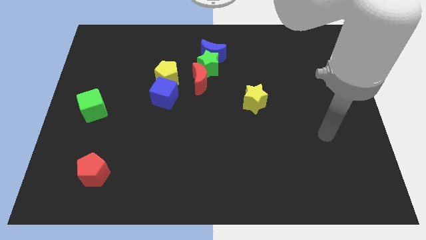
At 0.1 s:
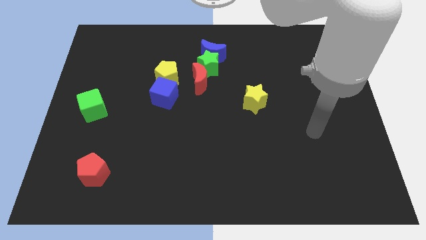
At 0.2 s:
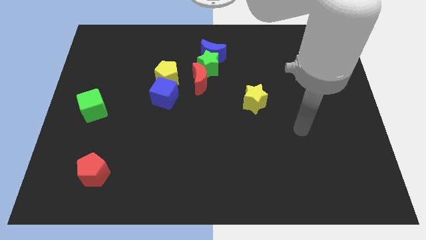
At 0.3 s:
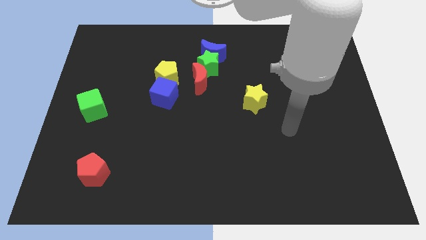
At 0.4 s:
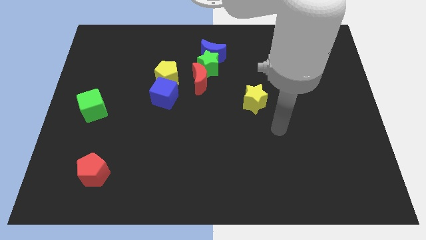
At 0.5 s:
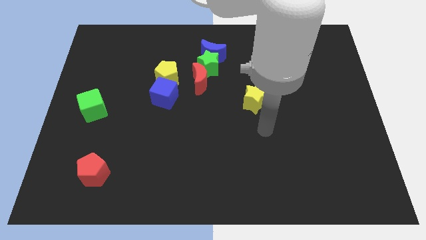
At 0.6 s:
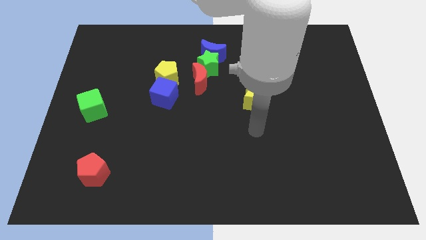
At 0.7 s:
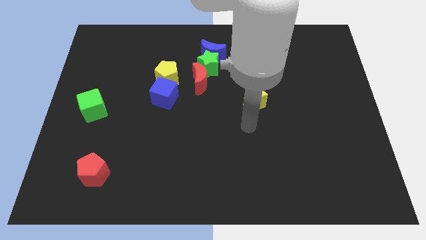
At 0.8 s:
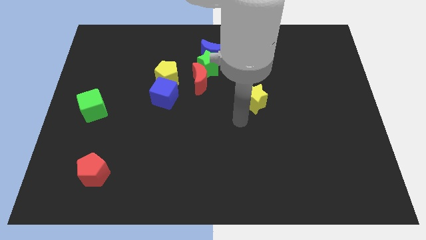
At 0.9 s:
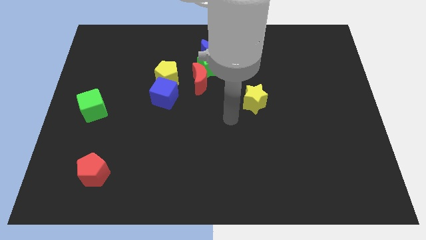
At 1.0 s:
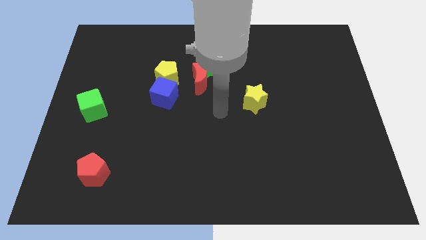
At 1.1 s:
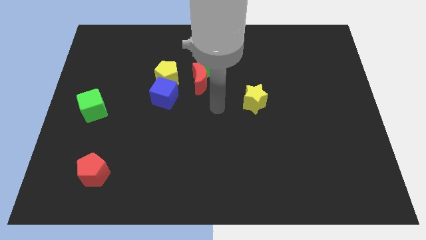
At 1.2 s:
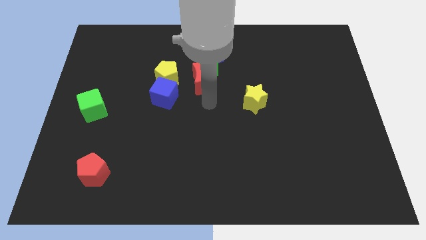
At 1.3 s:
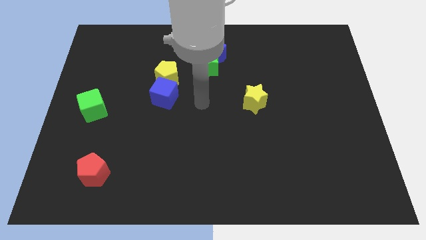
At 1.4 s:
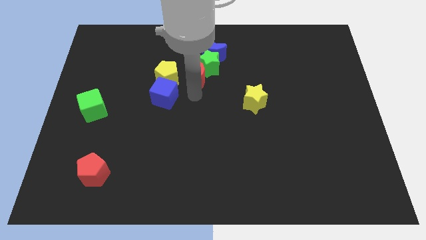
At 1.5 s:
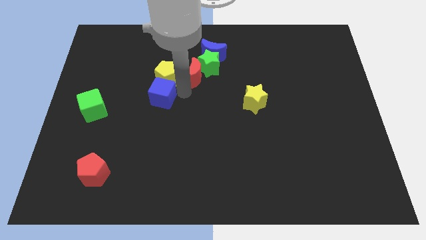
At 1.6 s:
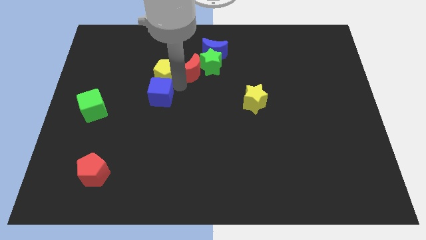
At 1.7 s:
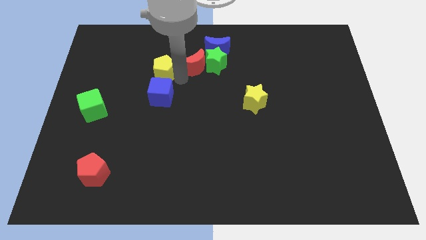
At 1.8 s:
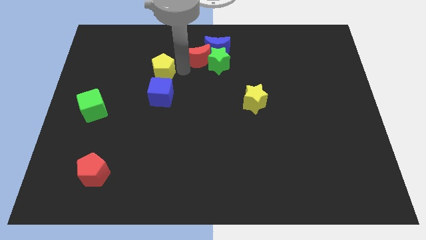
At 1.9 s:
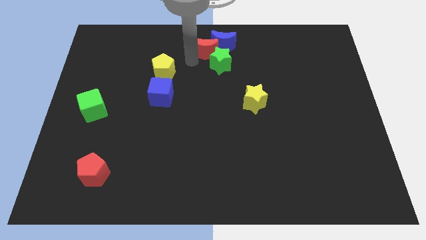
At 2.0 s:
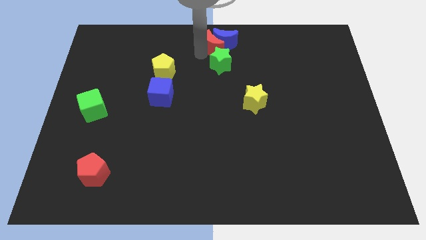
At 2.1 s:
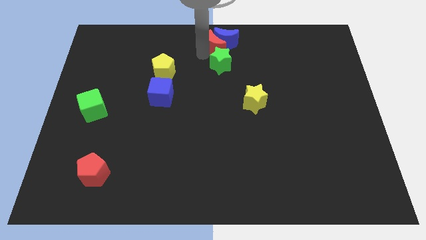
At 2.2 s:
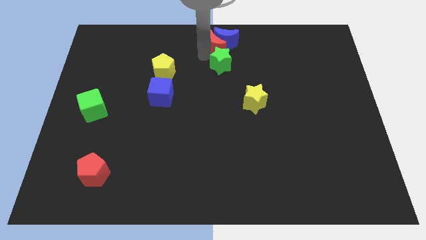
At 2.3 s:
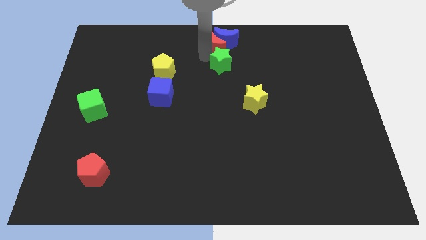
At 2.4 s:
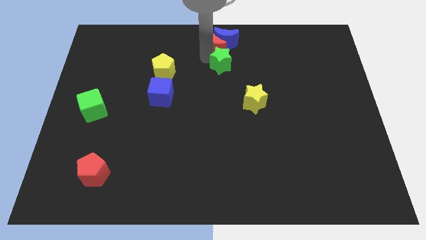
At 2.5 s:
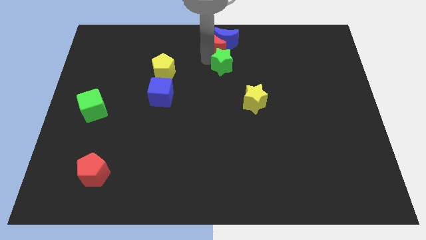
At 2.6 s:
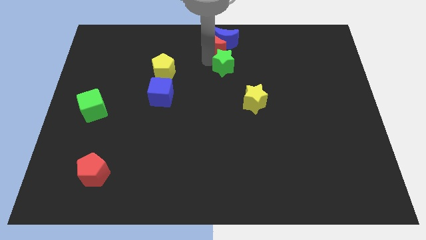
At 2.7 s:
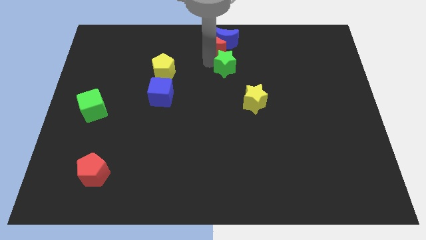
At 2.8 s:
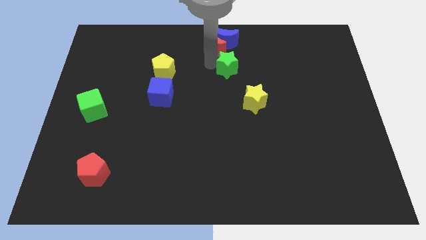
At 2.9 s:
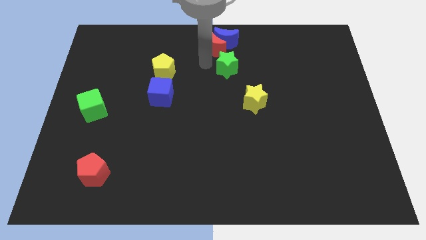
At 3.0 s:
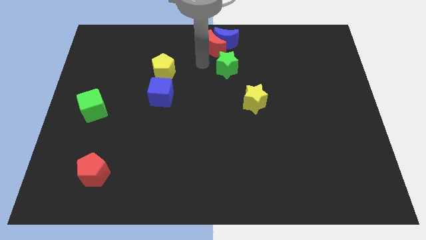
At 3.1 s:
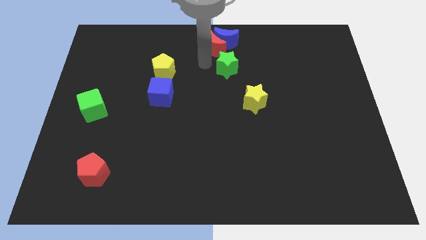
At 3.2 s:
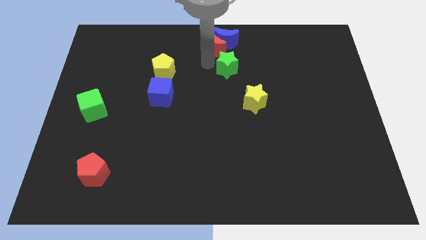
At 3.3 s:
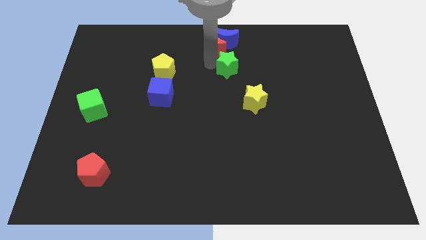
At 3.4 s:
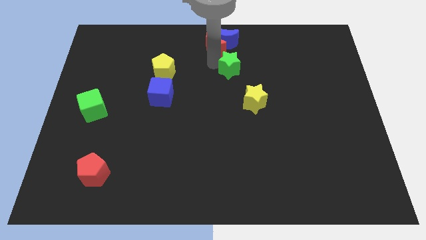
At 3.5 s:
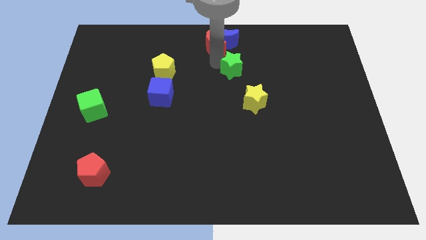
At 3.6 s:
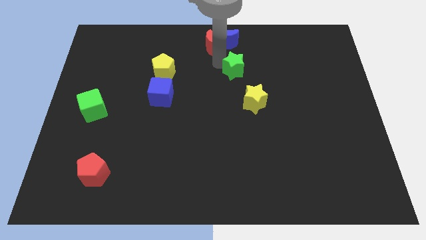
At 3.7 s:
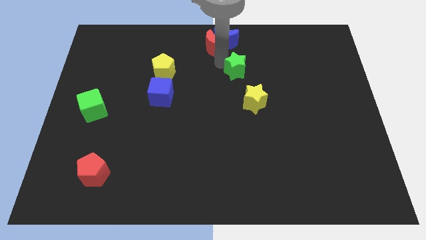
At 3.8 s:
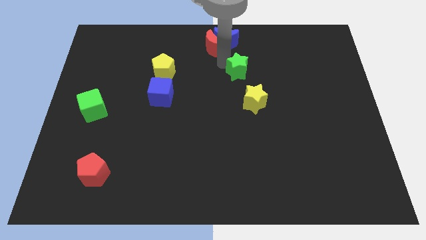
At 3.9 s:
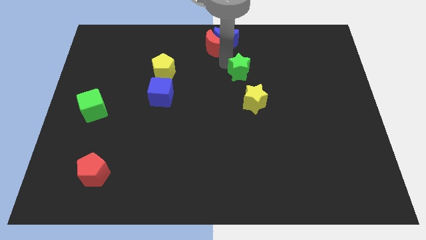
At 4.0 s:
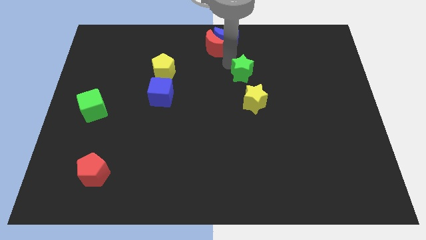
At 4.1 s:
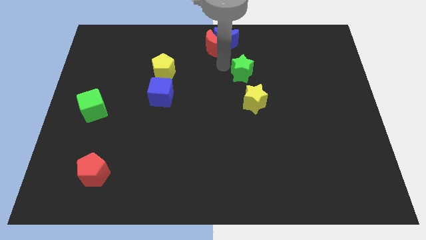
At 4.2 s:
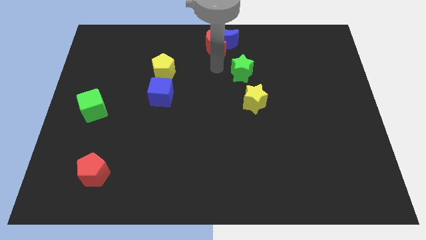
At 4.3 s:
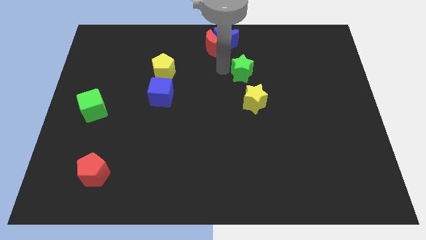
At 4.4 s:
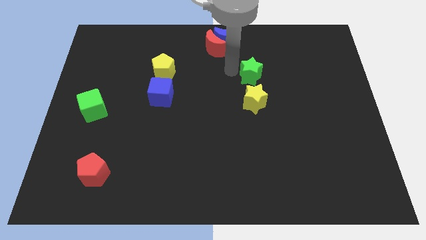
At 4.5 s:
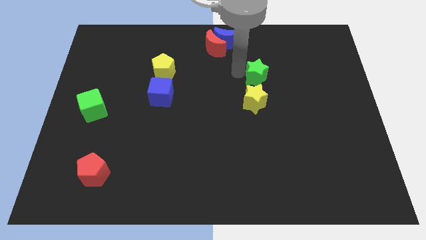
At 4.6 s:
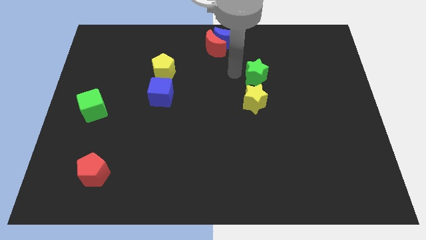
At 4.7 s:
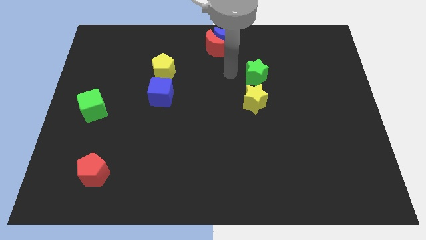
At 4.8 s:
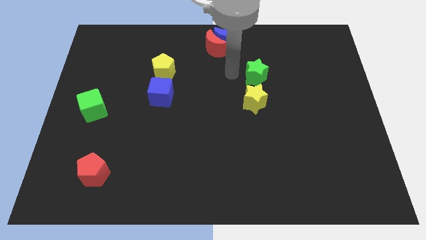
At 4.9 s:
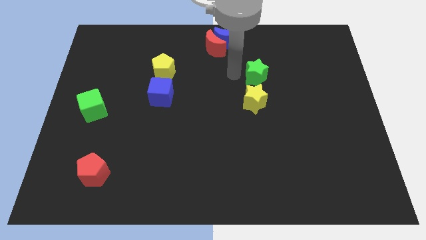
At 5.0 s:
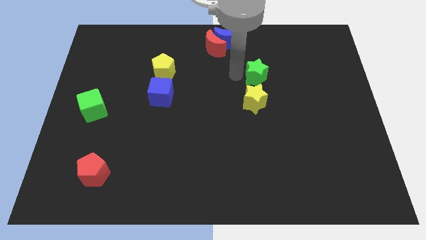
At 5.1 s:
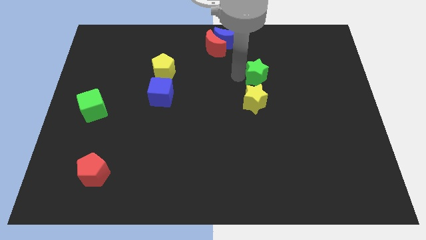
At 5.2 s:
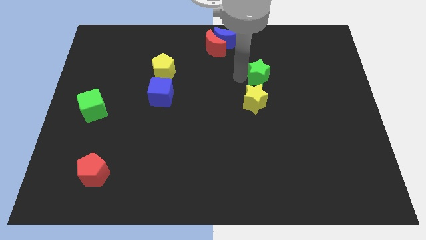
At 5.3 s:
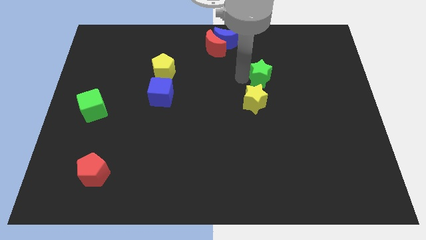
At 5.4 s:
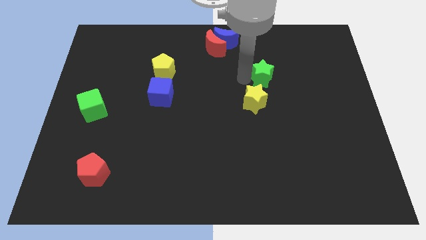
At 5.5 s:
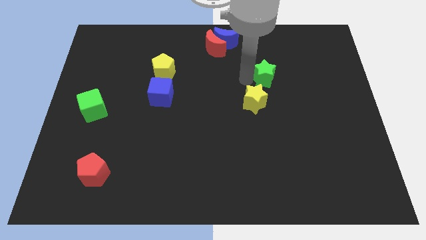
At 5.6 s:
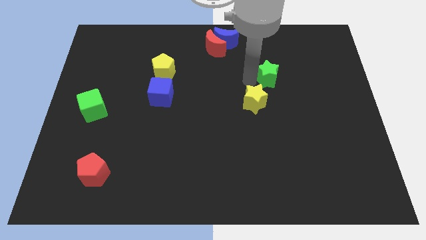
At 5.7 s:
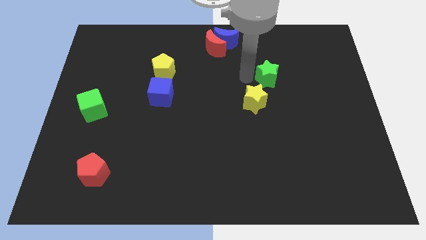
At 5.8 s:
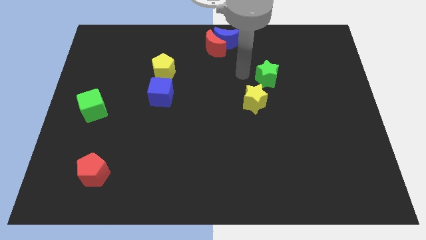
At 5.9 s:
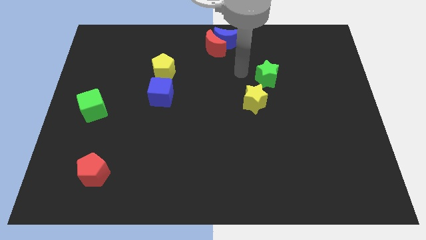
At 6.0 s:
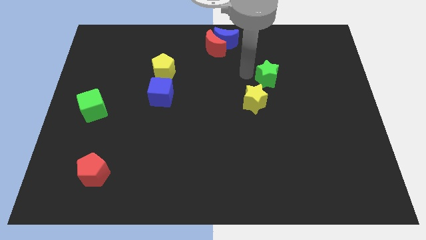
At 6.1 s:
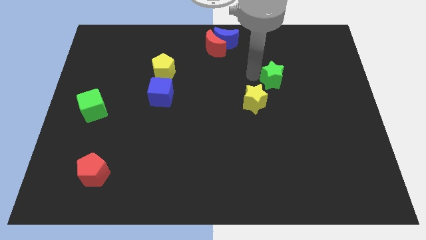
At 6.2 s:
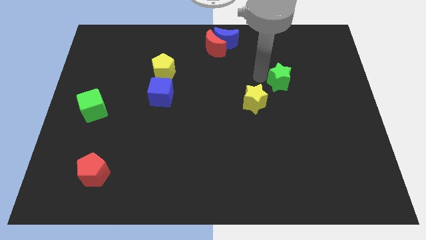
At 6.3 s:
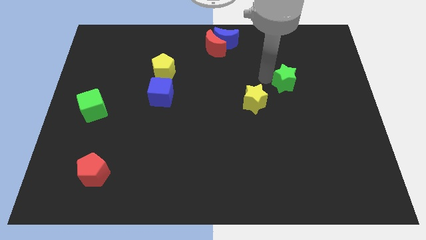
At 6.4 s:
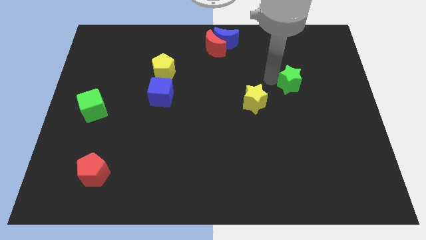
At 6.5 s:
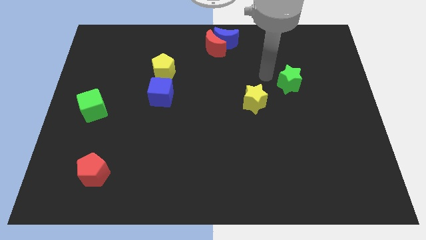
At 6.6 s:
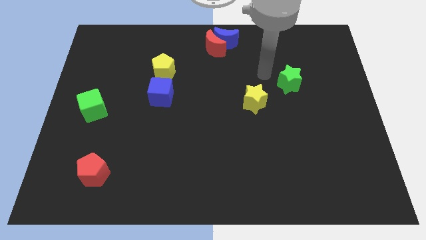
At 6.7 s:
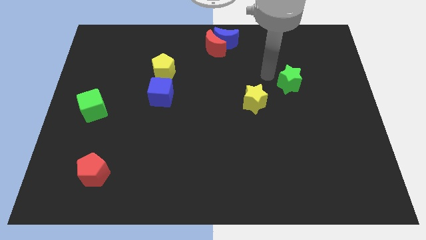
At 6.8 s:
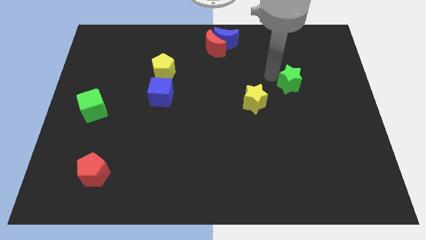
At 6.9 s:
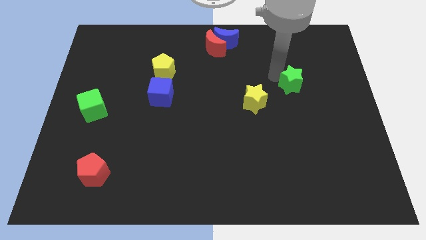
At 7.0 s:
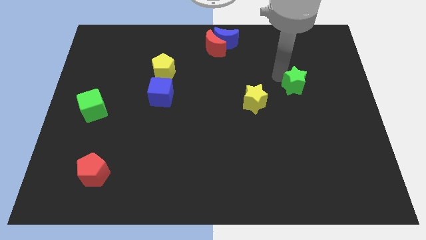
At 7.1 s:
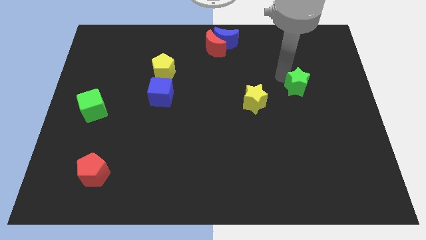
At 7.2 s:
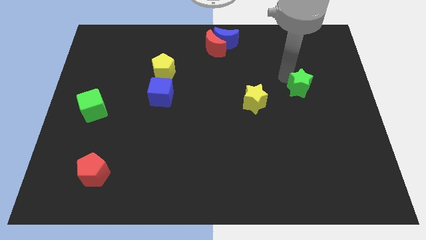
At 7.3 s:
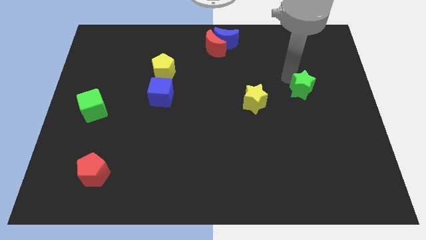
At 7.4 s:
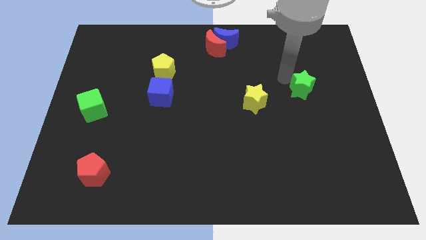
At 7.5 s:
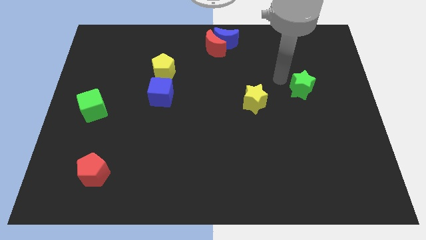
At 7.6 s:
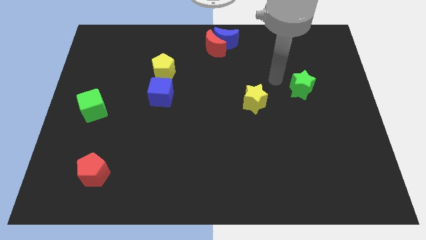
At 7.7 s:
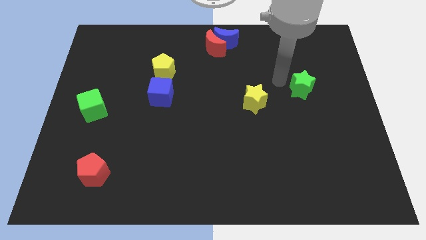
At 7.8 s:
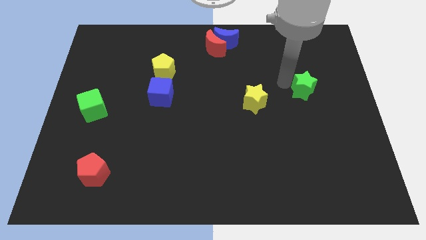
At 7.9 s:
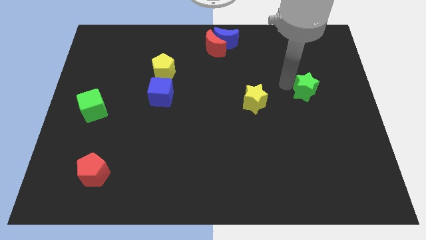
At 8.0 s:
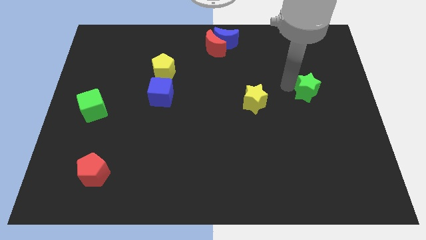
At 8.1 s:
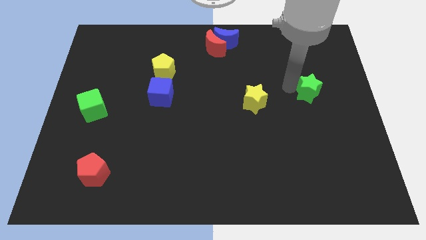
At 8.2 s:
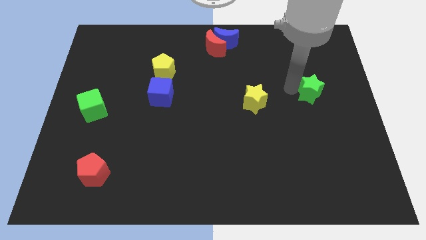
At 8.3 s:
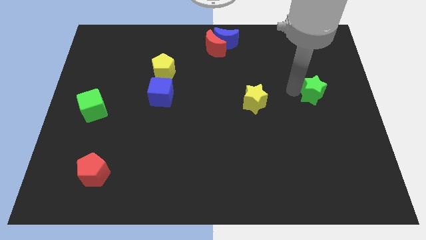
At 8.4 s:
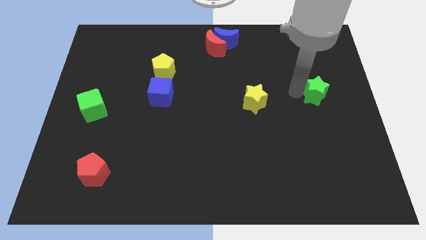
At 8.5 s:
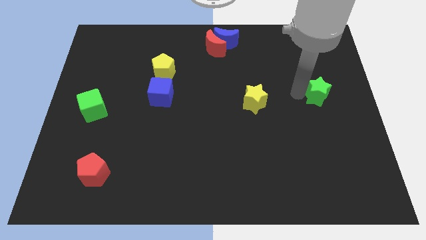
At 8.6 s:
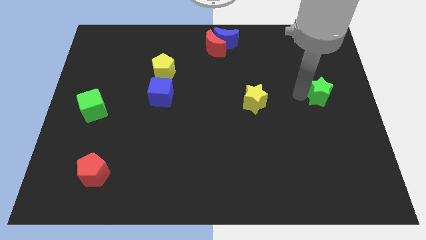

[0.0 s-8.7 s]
move the green star to the right side of the board
